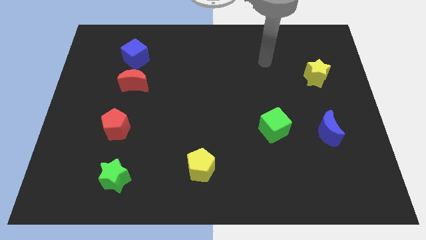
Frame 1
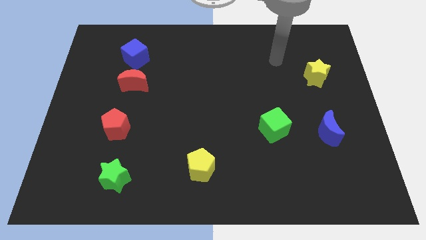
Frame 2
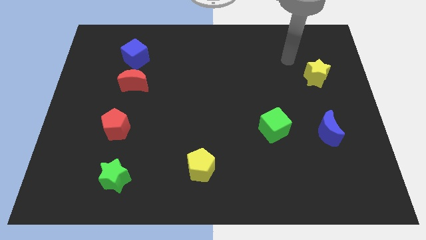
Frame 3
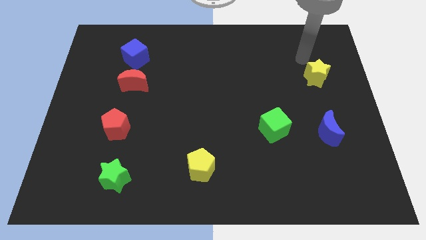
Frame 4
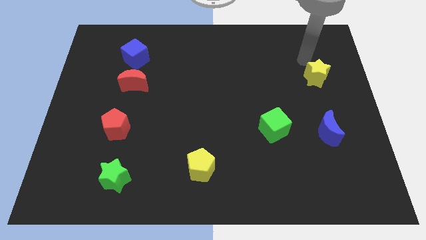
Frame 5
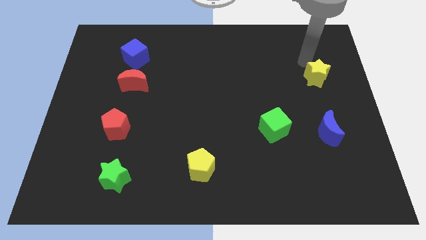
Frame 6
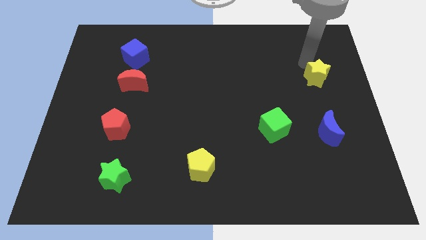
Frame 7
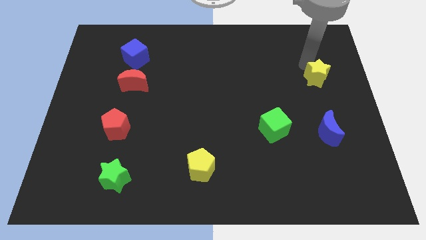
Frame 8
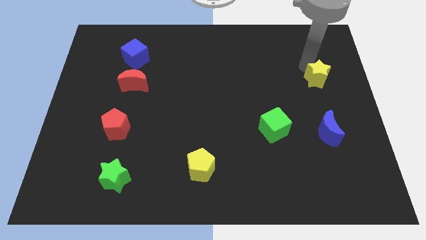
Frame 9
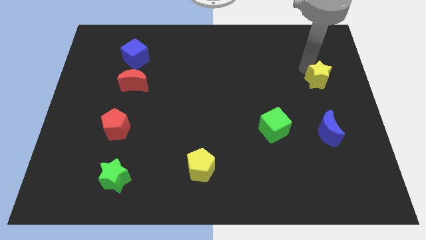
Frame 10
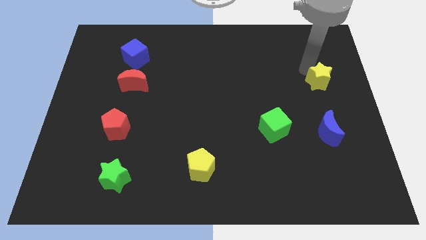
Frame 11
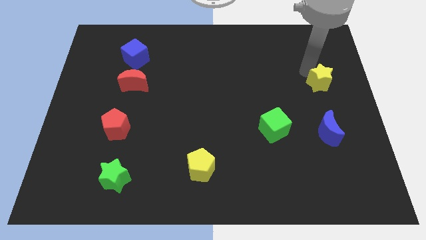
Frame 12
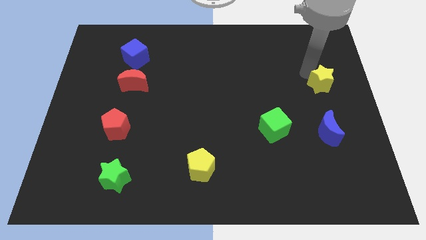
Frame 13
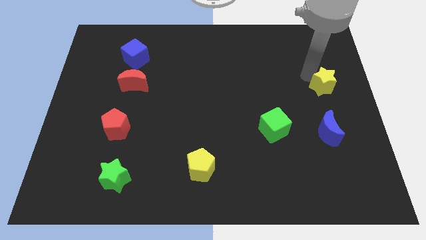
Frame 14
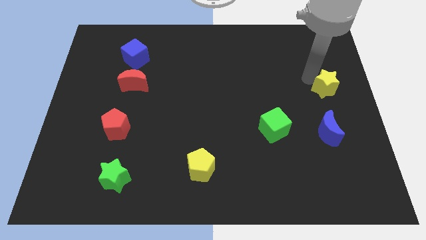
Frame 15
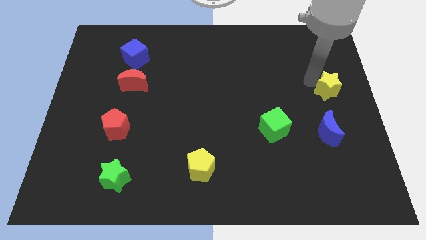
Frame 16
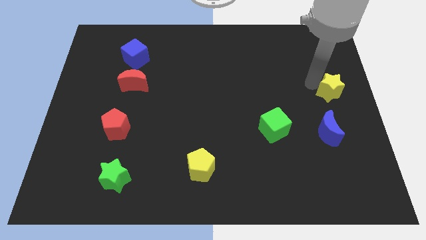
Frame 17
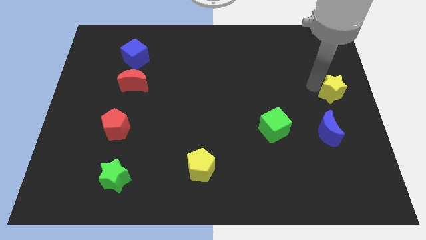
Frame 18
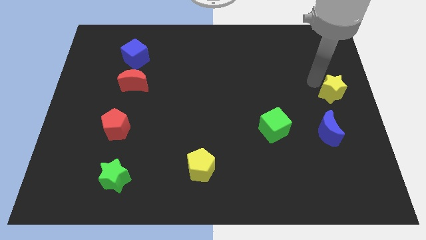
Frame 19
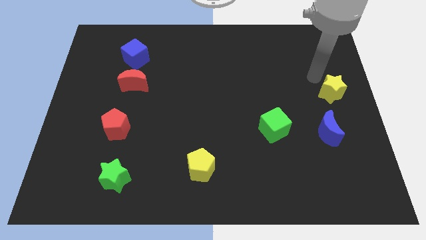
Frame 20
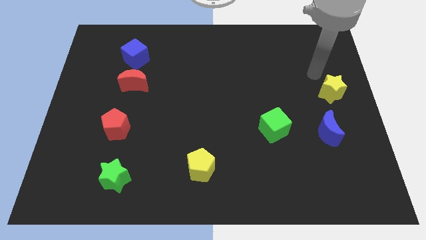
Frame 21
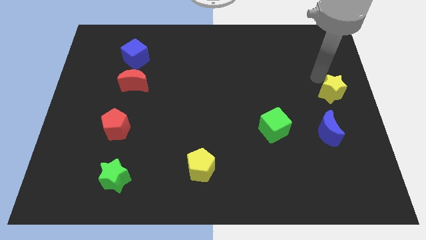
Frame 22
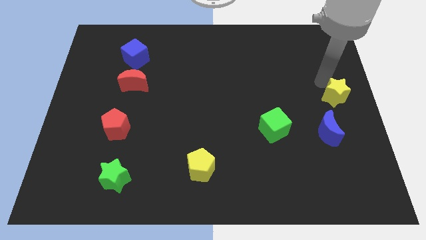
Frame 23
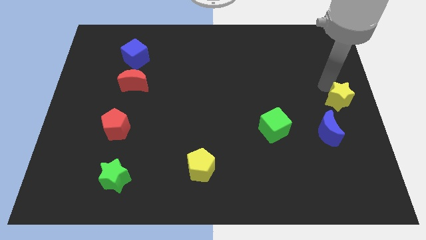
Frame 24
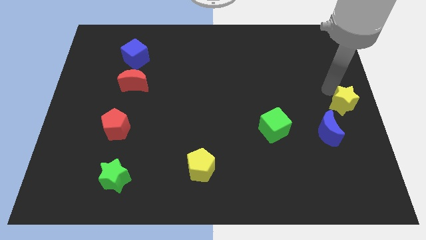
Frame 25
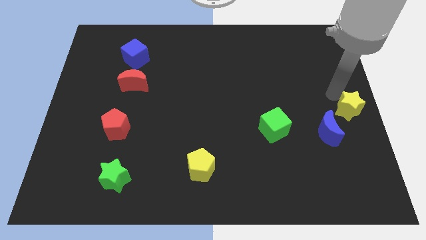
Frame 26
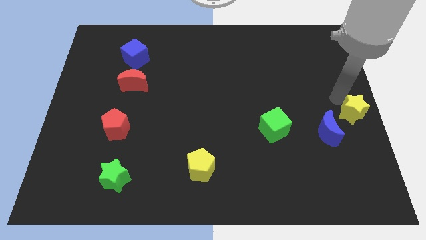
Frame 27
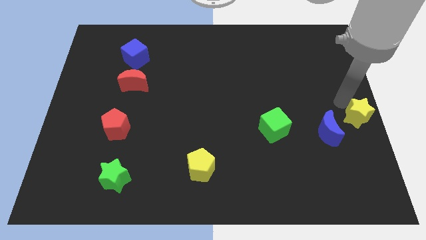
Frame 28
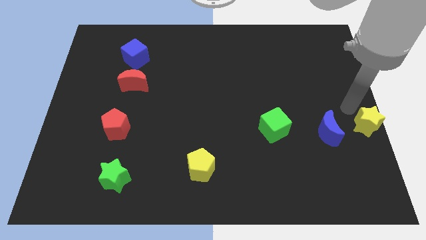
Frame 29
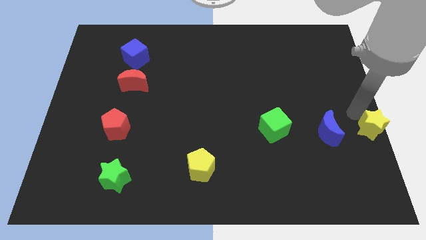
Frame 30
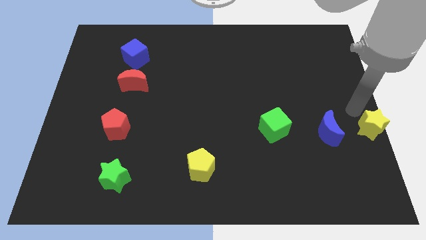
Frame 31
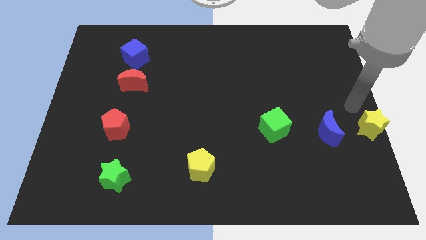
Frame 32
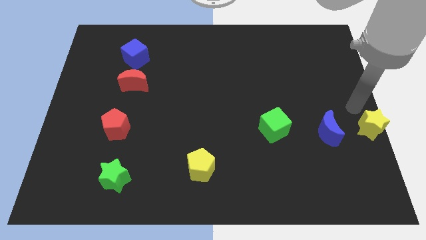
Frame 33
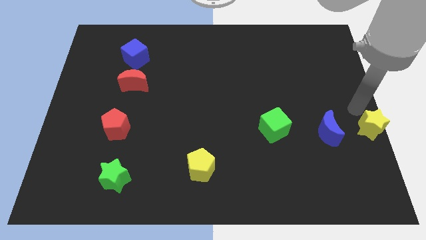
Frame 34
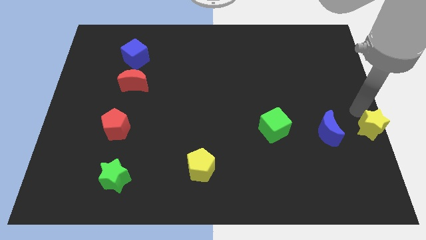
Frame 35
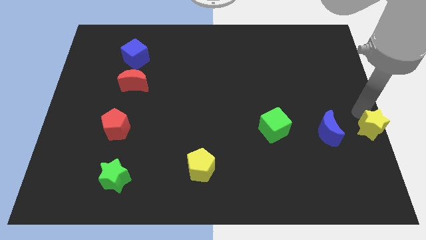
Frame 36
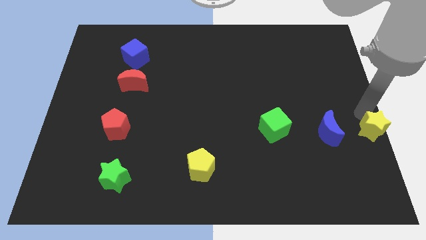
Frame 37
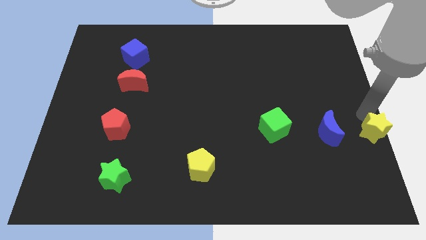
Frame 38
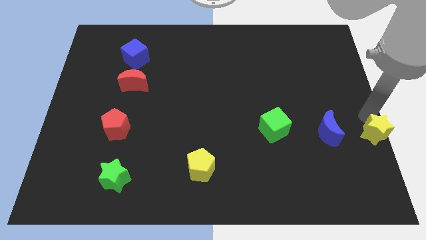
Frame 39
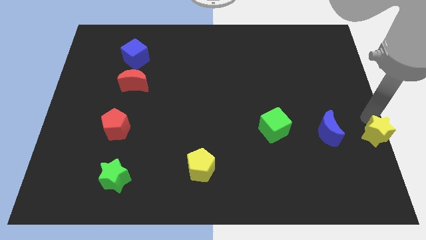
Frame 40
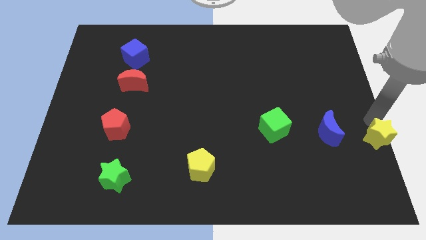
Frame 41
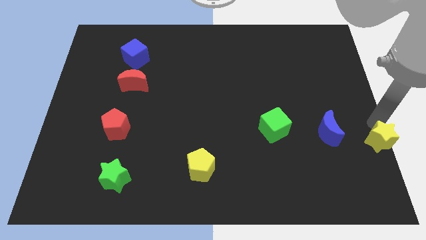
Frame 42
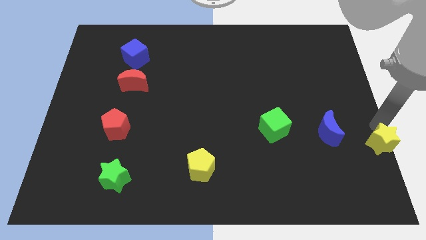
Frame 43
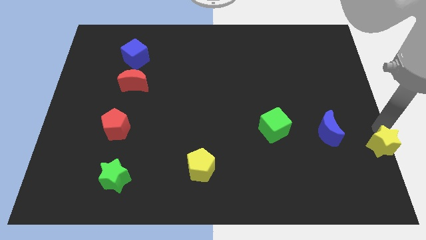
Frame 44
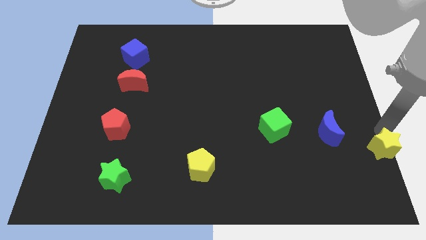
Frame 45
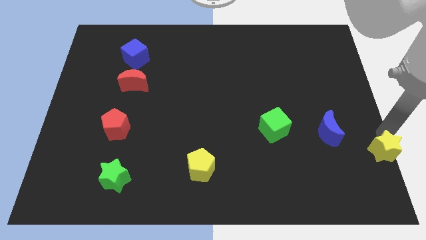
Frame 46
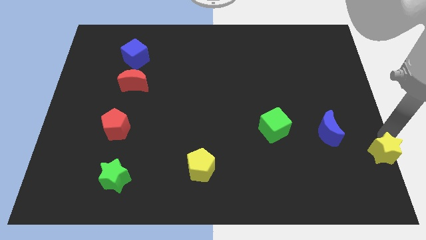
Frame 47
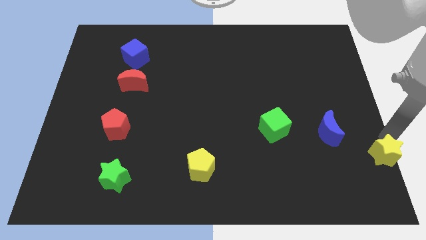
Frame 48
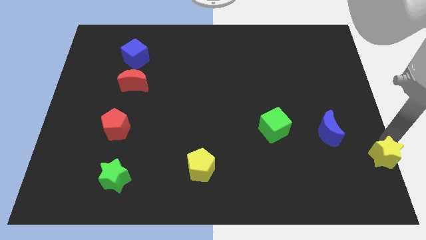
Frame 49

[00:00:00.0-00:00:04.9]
push the yellow star to the bottom right

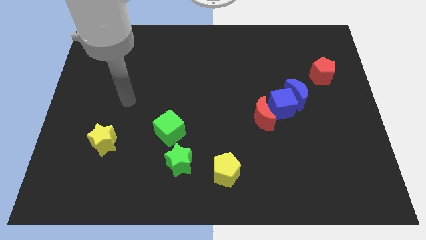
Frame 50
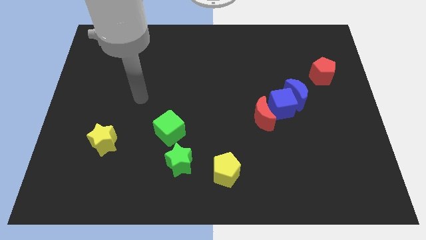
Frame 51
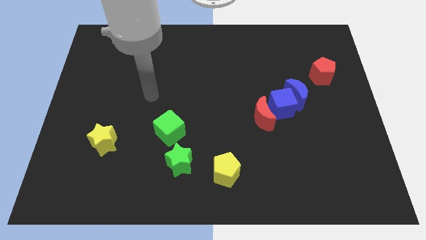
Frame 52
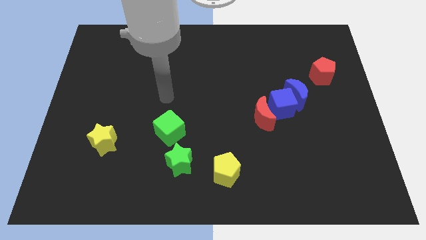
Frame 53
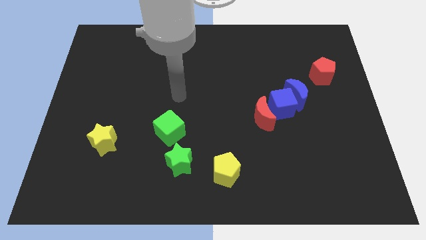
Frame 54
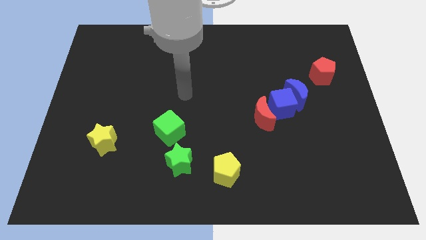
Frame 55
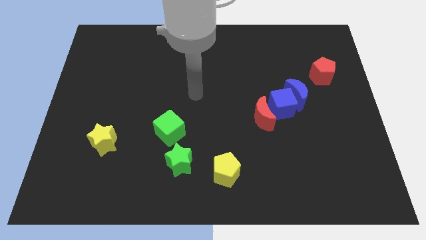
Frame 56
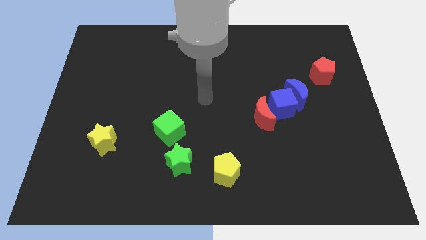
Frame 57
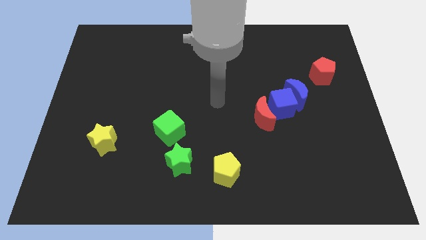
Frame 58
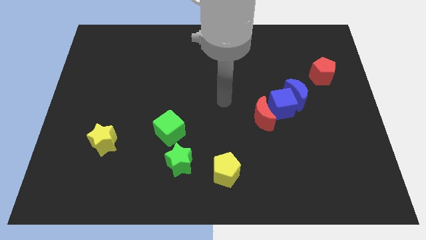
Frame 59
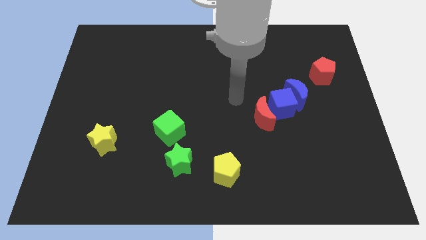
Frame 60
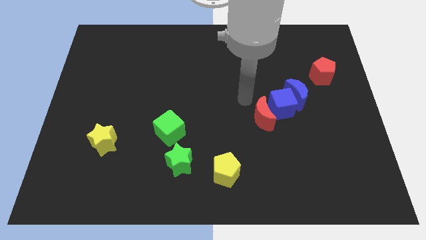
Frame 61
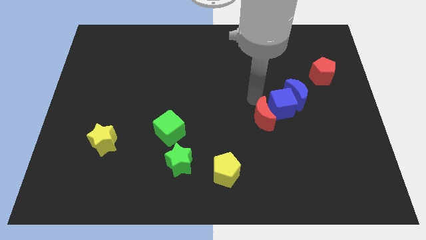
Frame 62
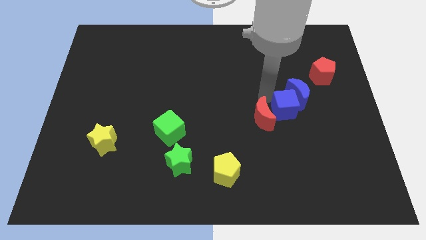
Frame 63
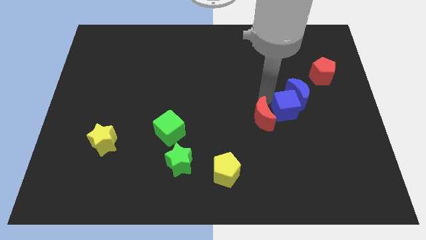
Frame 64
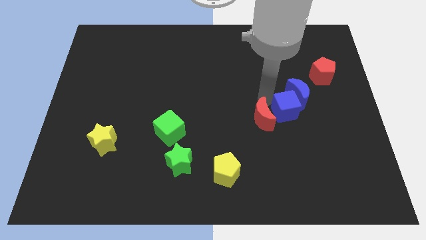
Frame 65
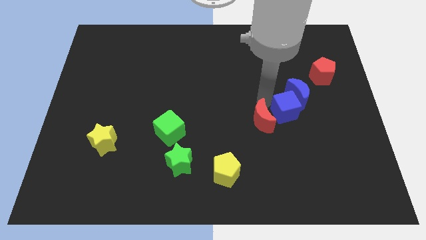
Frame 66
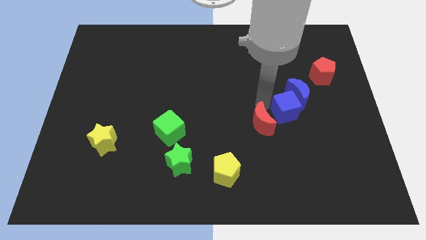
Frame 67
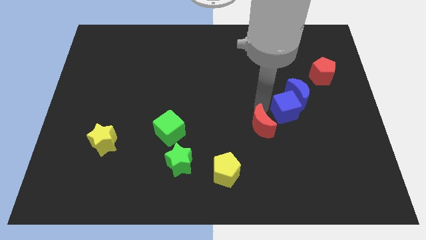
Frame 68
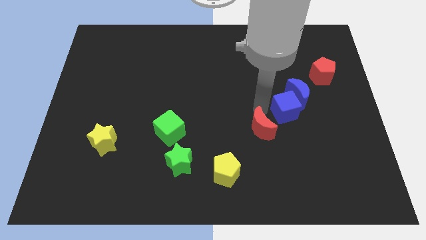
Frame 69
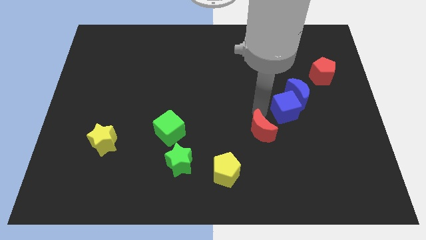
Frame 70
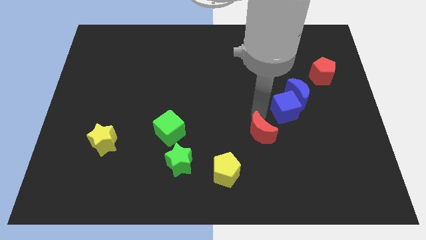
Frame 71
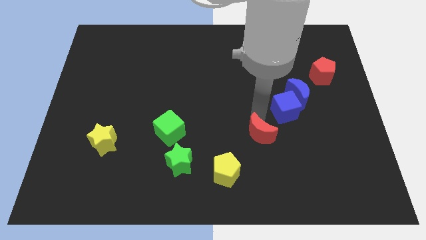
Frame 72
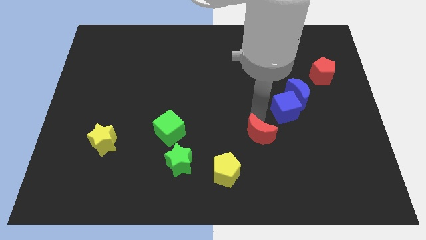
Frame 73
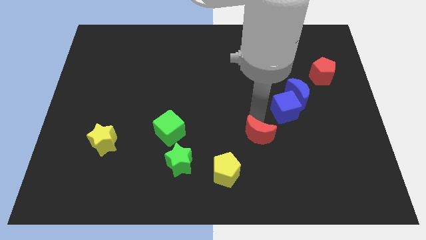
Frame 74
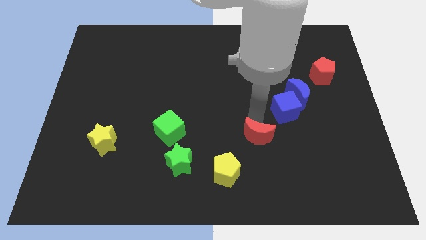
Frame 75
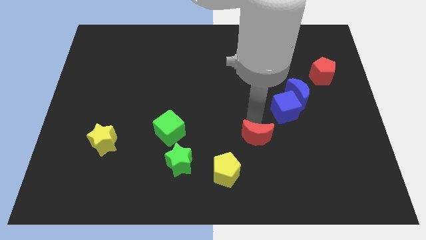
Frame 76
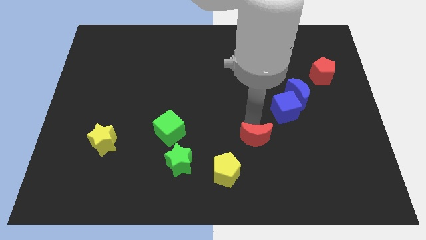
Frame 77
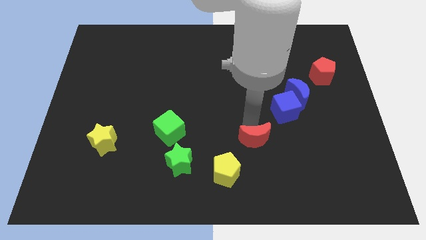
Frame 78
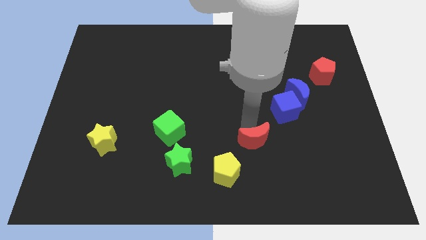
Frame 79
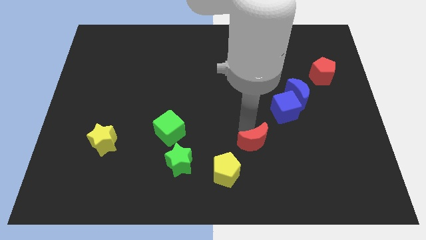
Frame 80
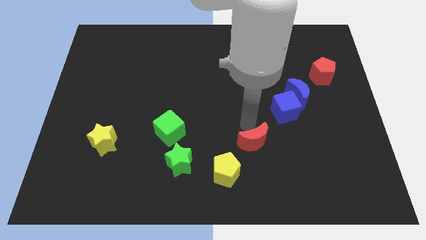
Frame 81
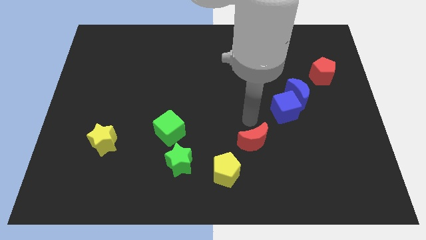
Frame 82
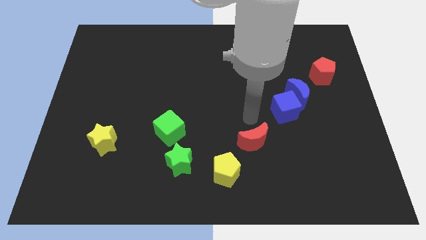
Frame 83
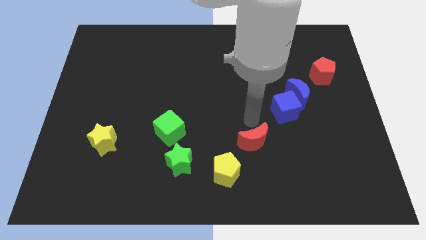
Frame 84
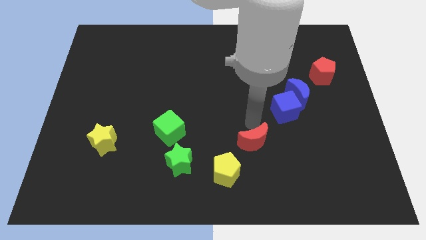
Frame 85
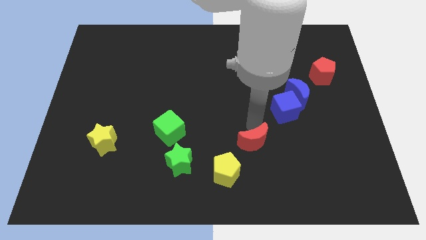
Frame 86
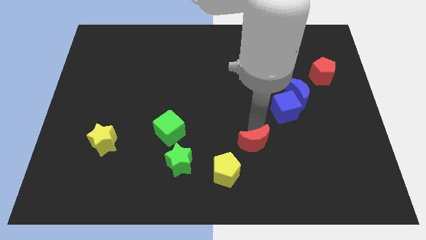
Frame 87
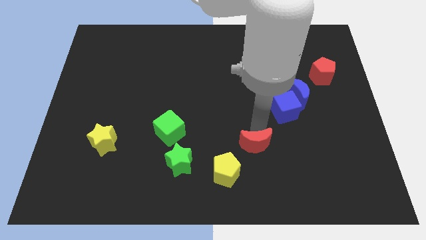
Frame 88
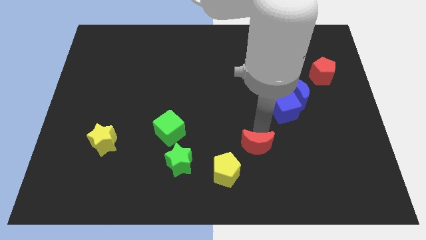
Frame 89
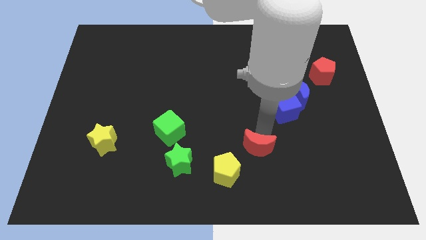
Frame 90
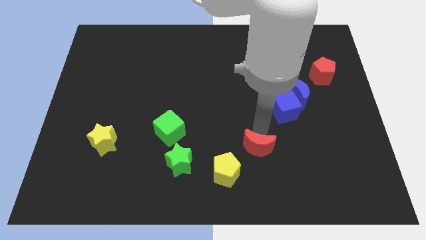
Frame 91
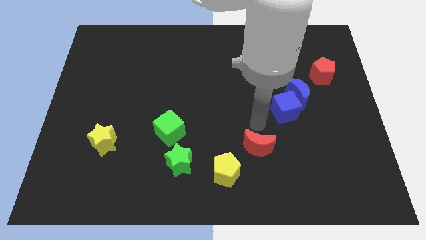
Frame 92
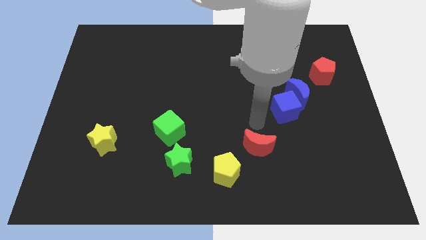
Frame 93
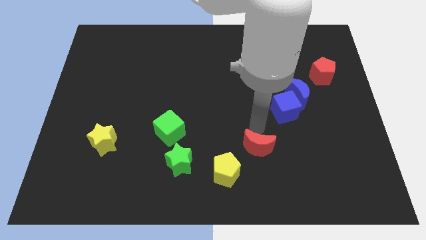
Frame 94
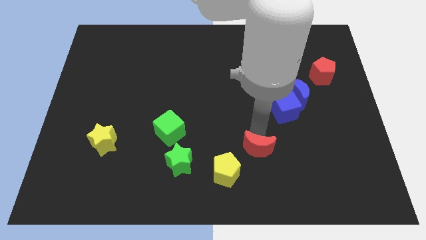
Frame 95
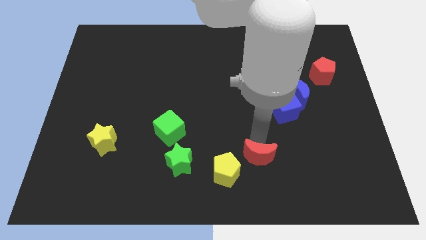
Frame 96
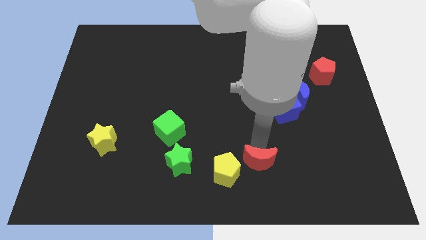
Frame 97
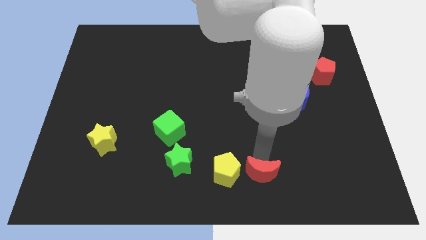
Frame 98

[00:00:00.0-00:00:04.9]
move the red moon to the bottom side
